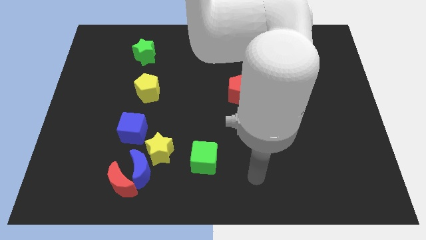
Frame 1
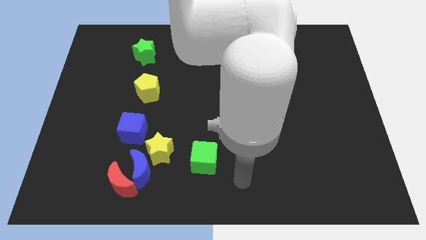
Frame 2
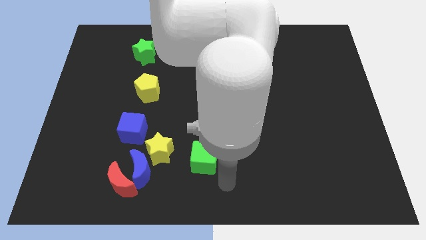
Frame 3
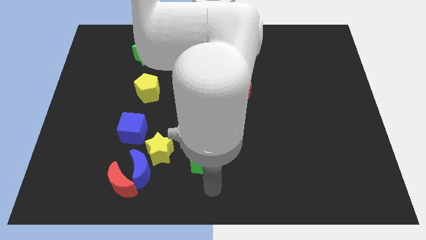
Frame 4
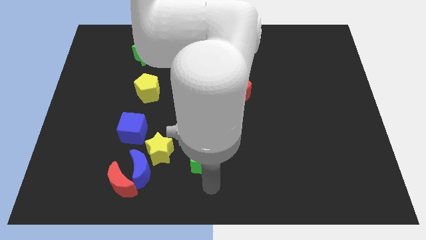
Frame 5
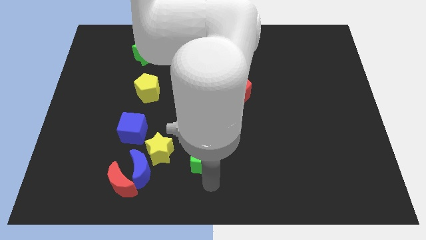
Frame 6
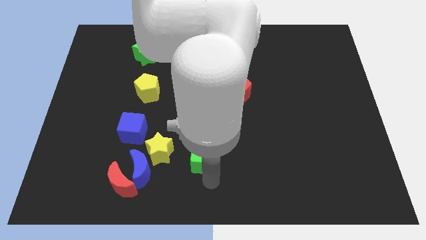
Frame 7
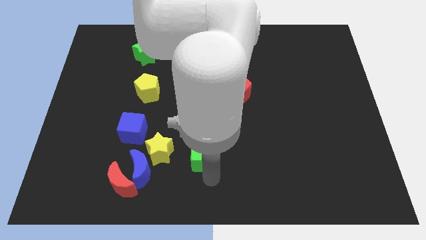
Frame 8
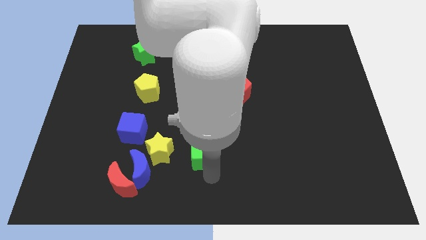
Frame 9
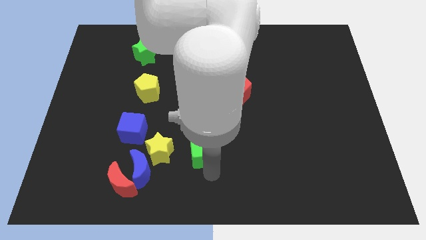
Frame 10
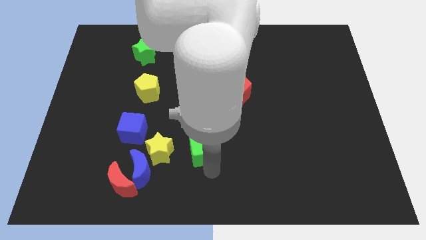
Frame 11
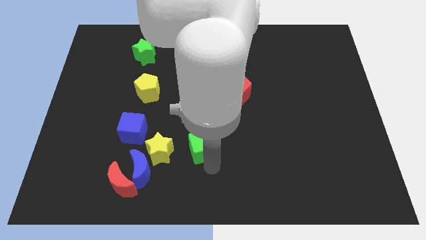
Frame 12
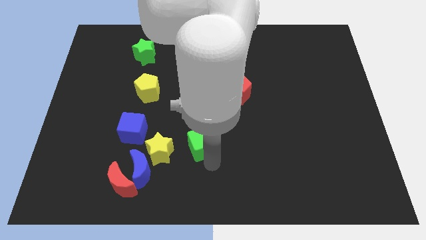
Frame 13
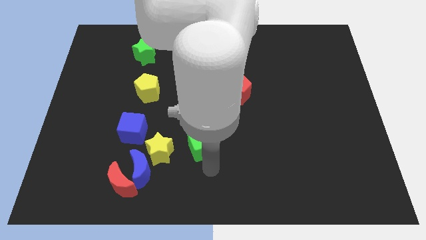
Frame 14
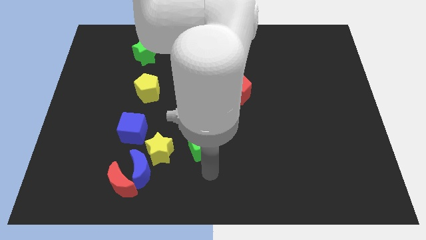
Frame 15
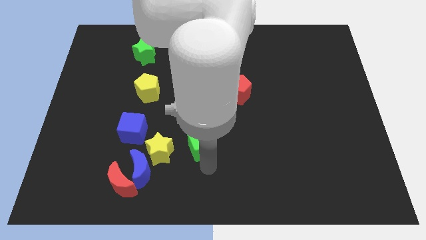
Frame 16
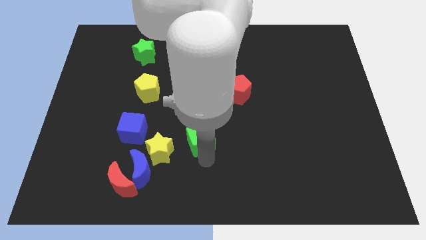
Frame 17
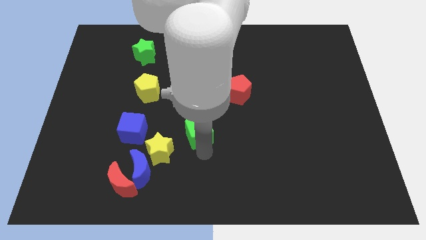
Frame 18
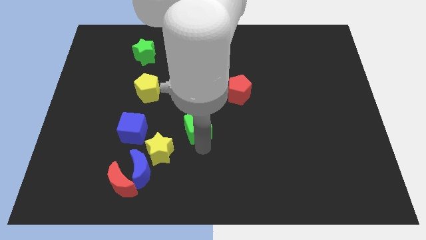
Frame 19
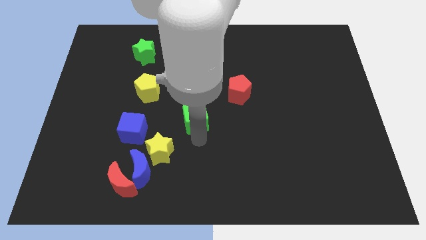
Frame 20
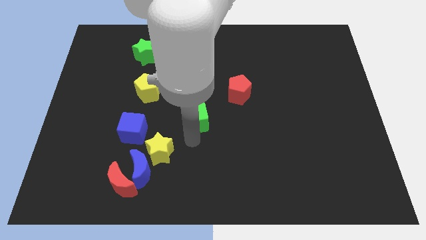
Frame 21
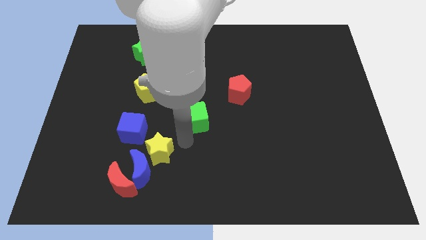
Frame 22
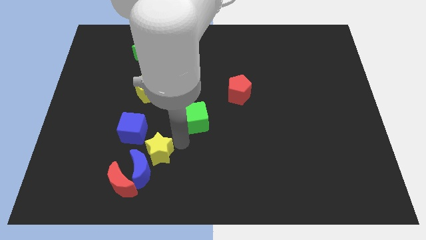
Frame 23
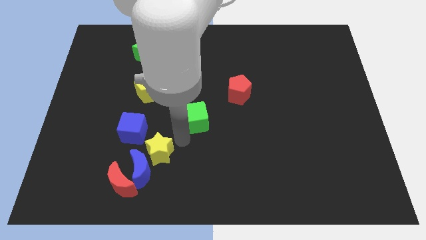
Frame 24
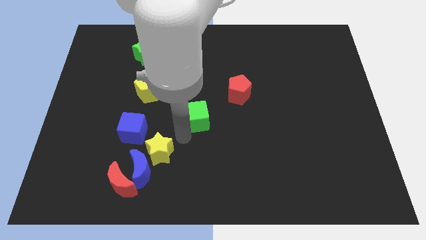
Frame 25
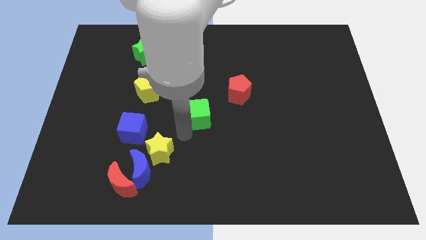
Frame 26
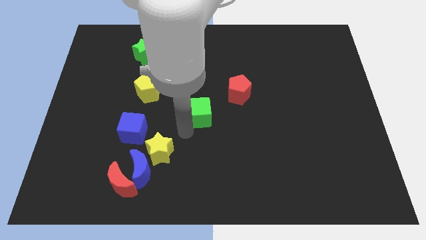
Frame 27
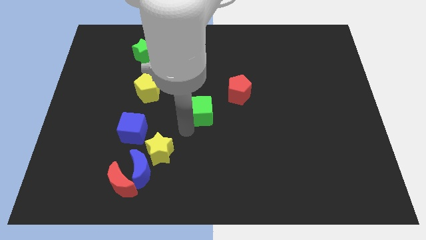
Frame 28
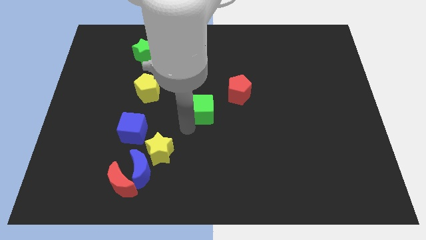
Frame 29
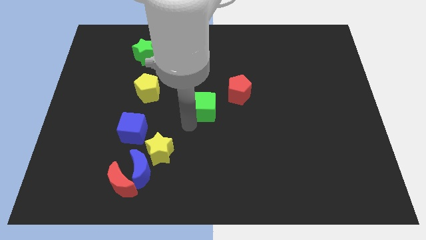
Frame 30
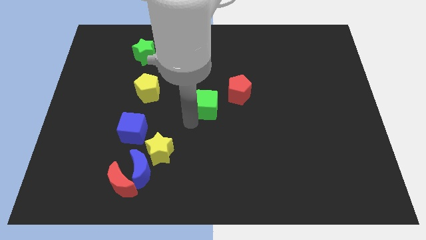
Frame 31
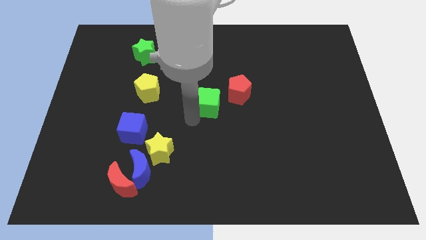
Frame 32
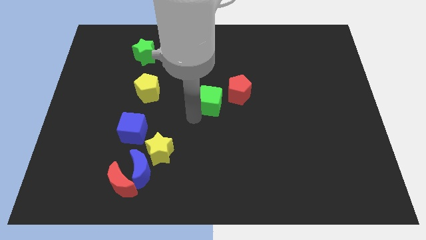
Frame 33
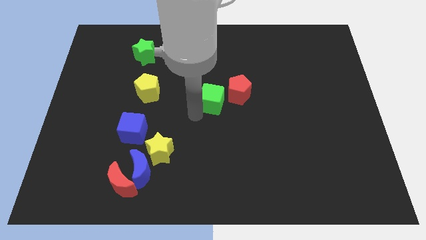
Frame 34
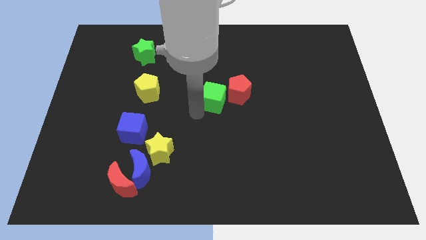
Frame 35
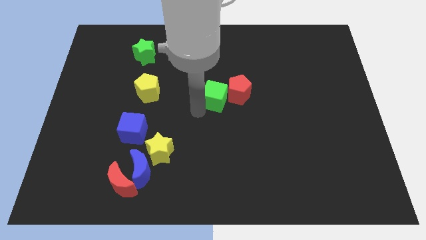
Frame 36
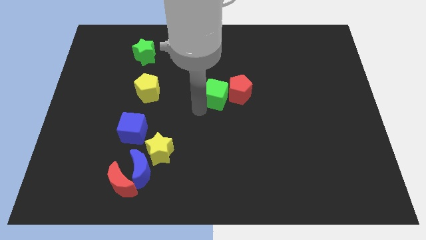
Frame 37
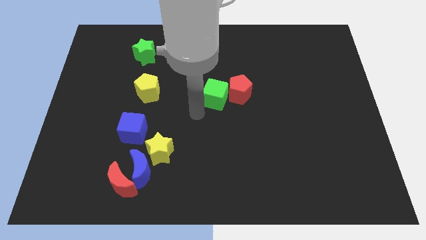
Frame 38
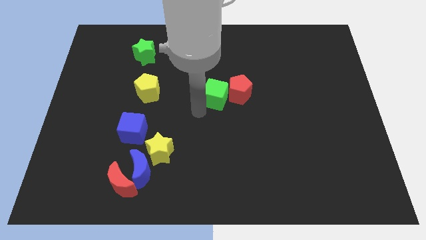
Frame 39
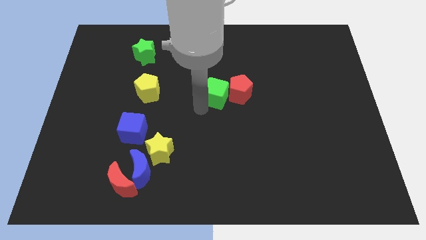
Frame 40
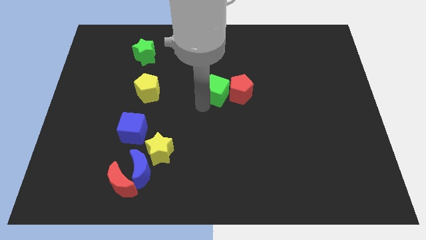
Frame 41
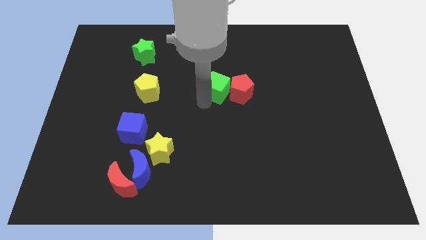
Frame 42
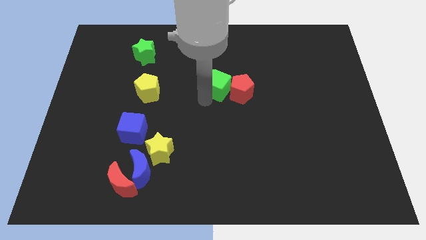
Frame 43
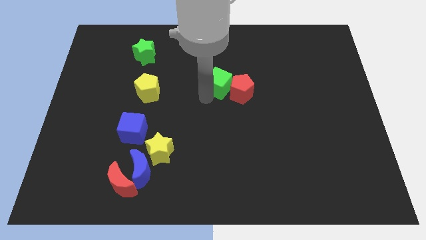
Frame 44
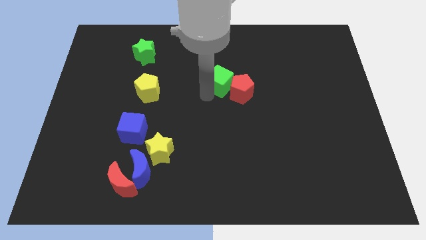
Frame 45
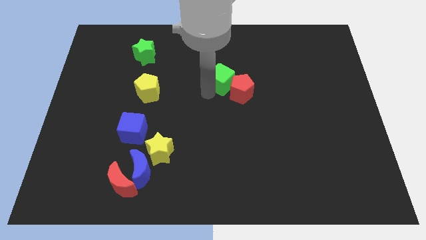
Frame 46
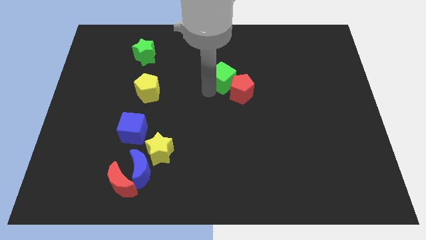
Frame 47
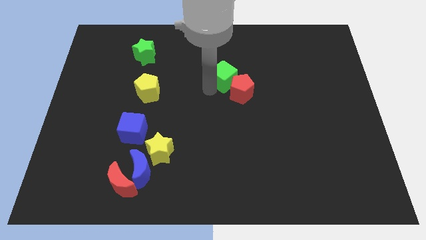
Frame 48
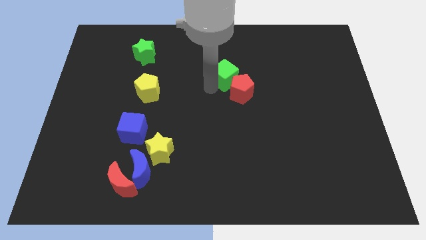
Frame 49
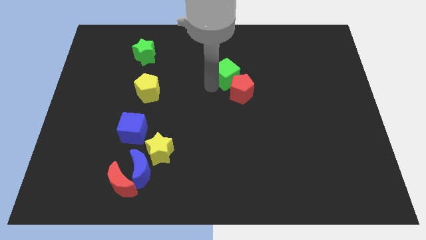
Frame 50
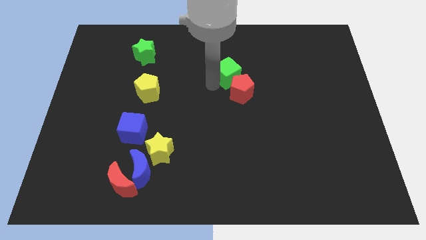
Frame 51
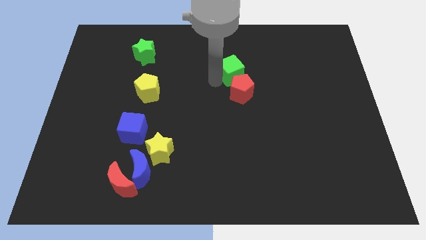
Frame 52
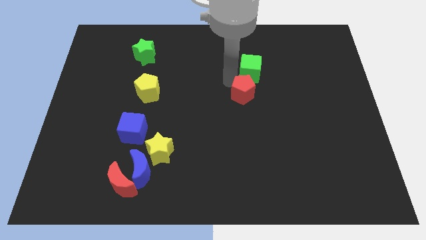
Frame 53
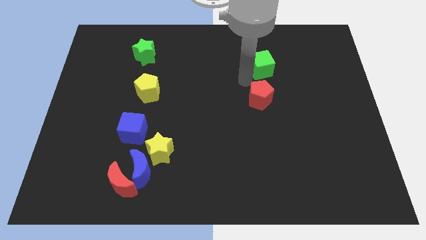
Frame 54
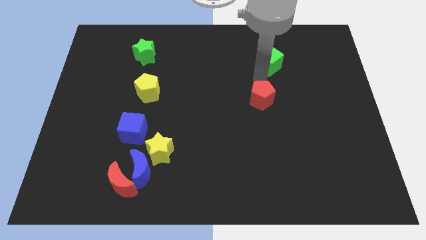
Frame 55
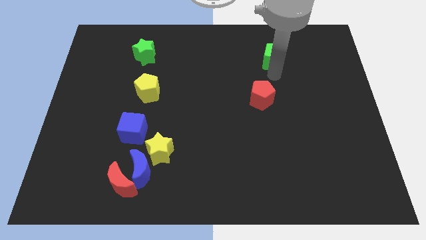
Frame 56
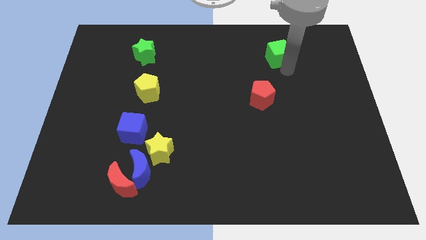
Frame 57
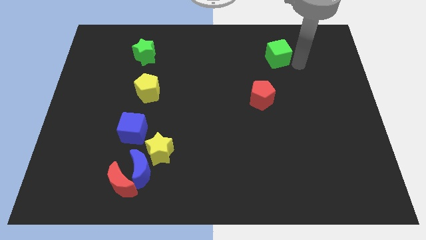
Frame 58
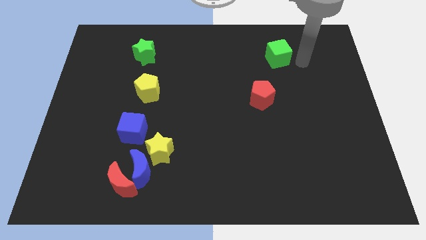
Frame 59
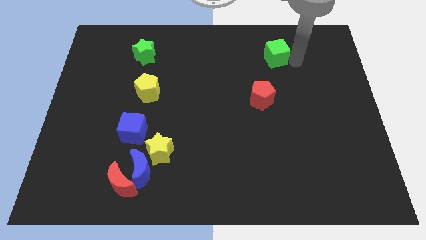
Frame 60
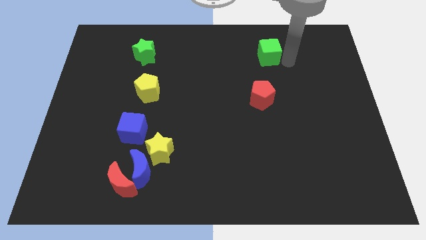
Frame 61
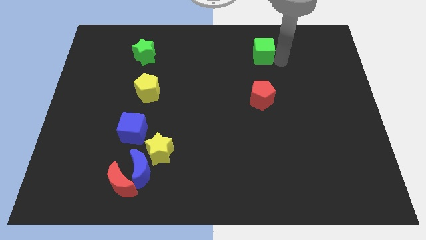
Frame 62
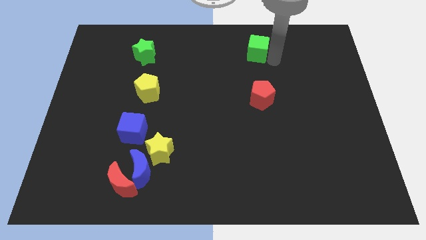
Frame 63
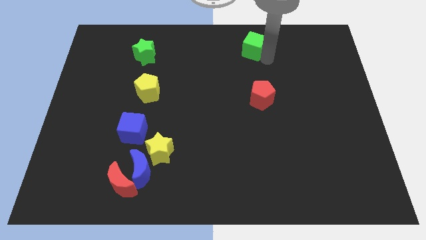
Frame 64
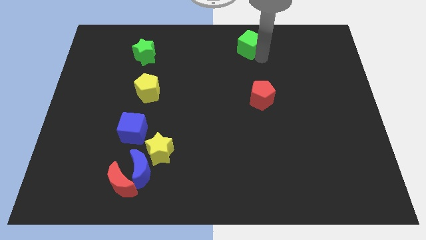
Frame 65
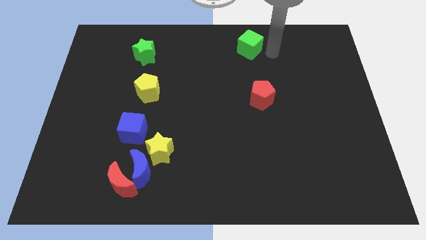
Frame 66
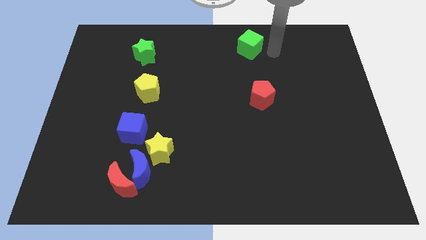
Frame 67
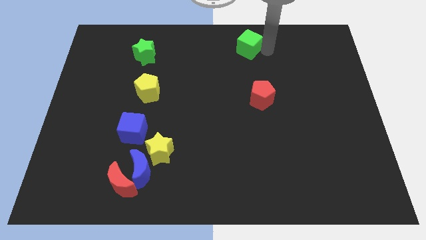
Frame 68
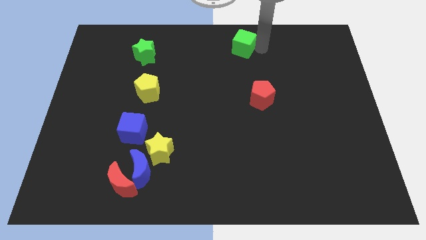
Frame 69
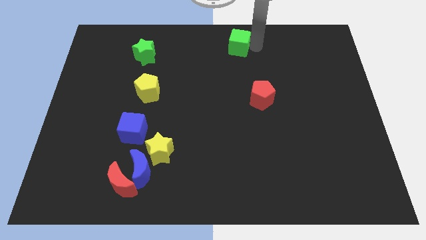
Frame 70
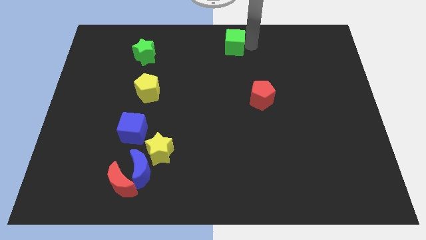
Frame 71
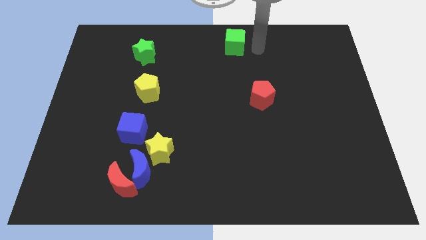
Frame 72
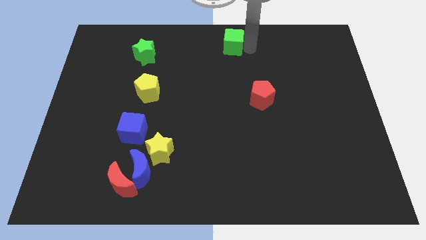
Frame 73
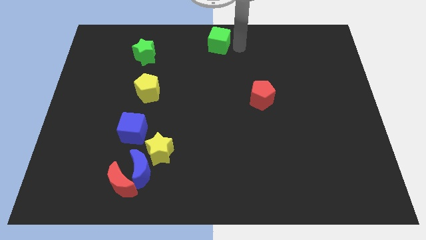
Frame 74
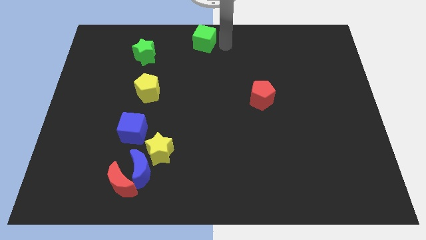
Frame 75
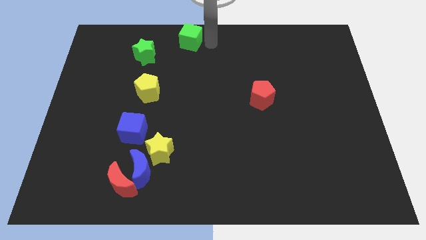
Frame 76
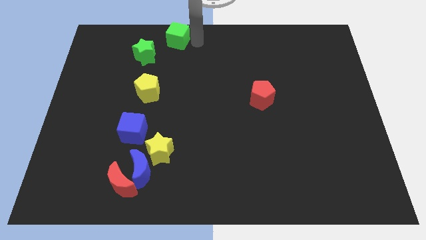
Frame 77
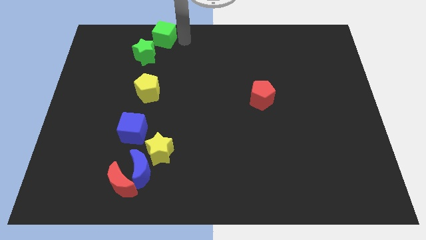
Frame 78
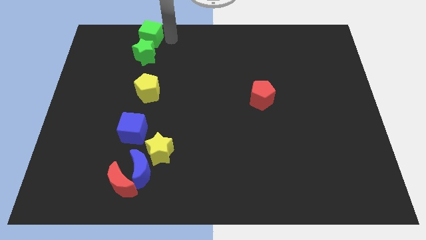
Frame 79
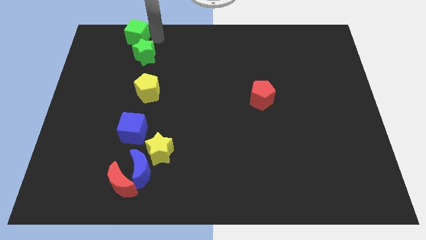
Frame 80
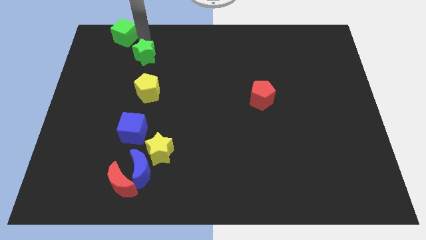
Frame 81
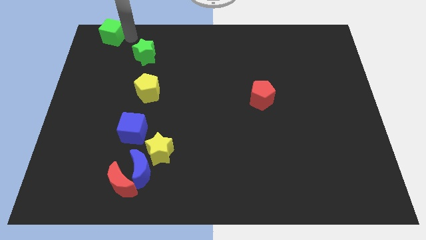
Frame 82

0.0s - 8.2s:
put the green cube to the top left
